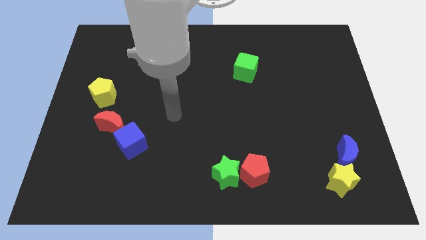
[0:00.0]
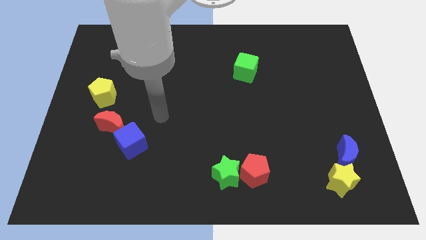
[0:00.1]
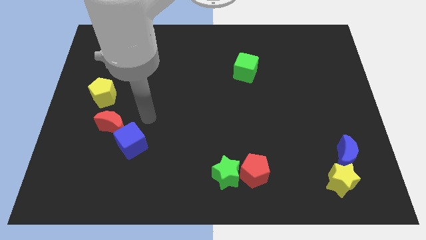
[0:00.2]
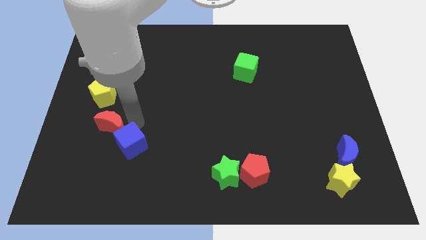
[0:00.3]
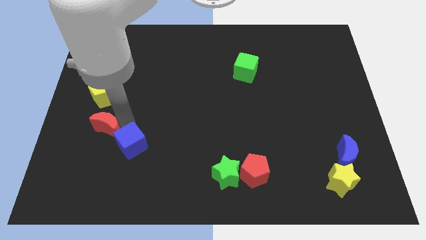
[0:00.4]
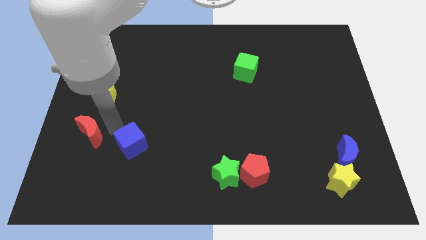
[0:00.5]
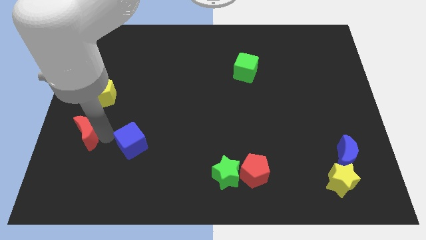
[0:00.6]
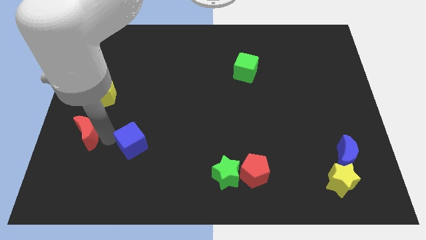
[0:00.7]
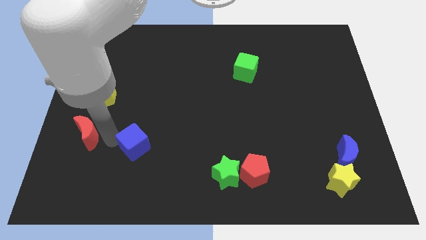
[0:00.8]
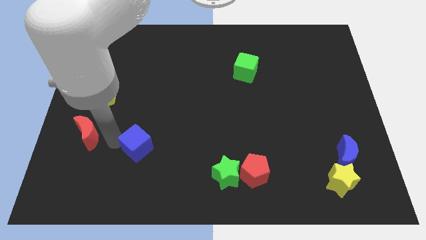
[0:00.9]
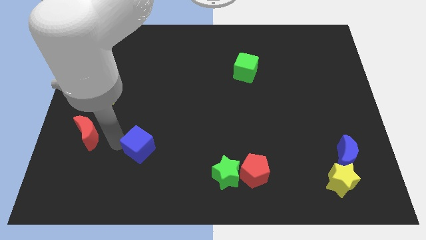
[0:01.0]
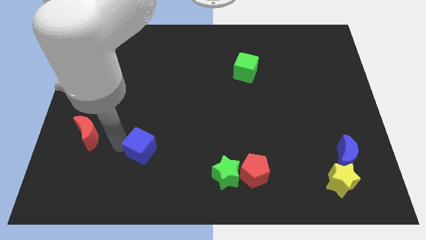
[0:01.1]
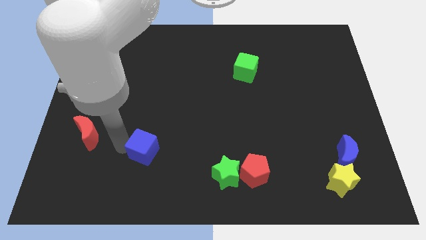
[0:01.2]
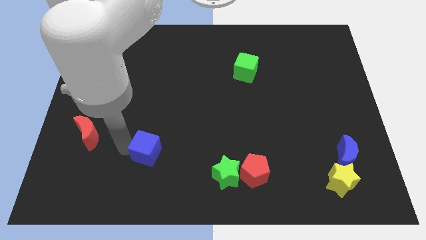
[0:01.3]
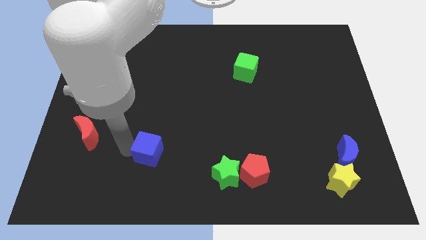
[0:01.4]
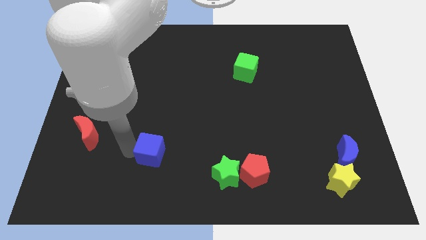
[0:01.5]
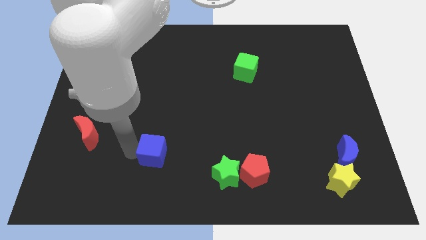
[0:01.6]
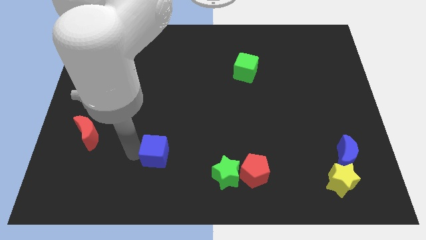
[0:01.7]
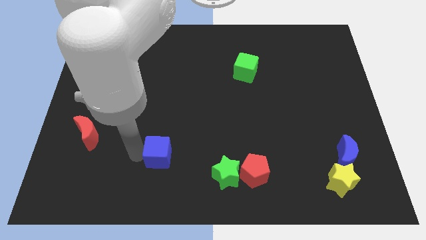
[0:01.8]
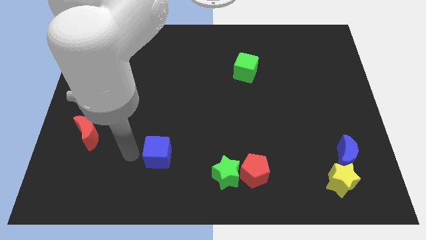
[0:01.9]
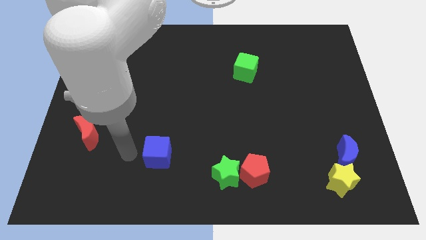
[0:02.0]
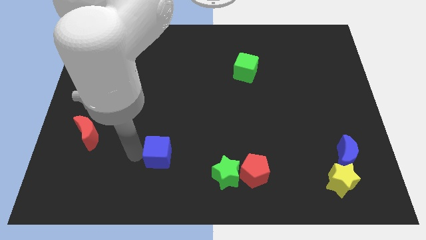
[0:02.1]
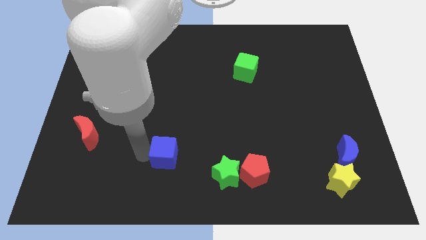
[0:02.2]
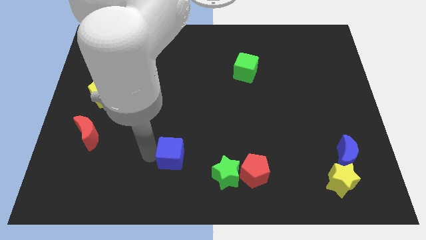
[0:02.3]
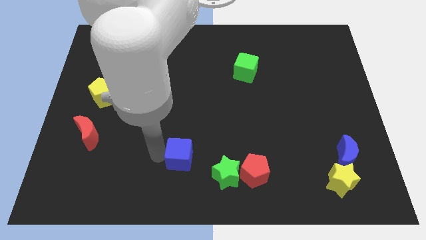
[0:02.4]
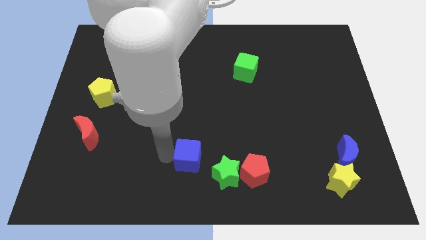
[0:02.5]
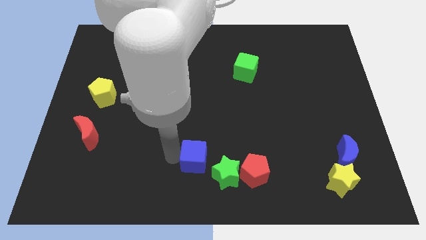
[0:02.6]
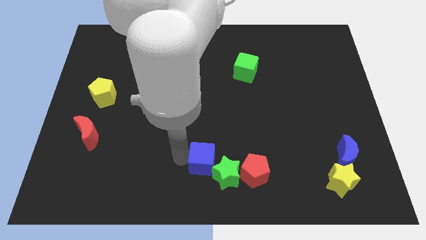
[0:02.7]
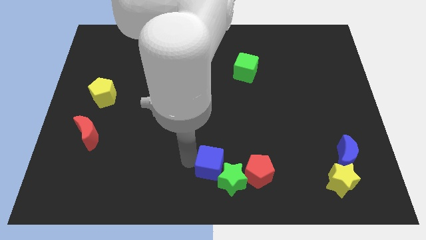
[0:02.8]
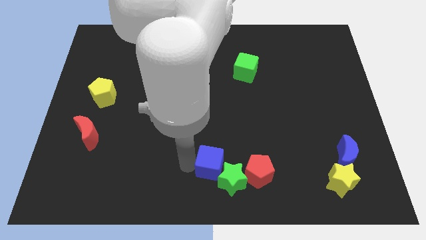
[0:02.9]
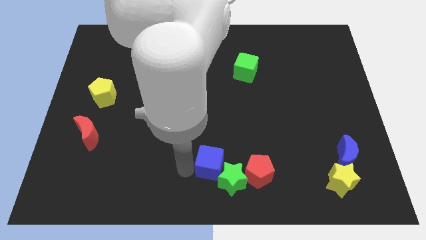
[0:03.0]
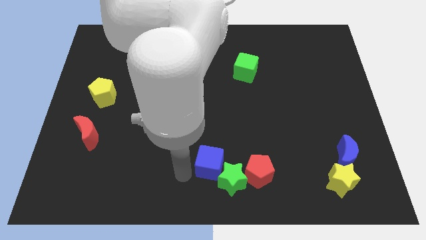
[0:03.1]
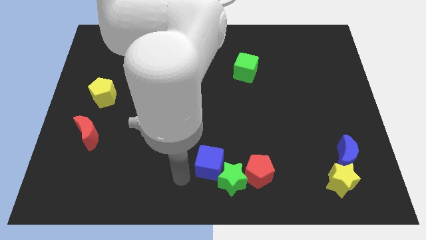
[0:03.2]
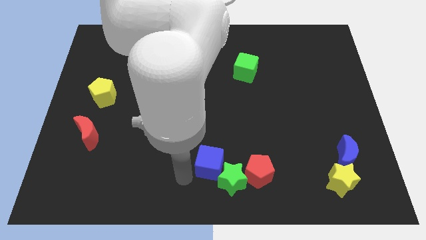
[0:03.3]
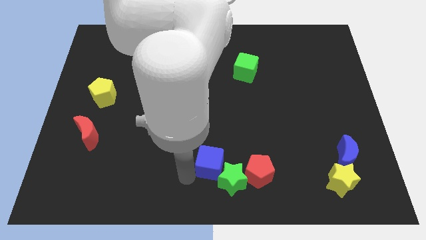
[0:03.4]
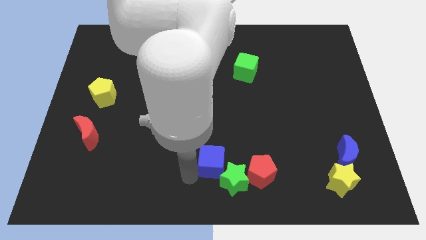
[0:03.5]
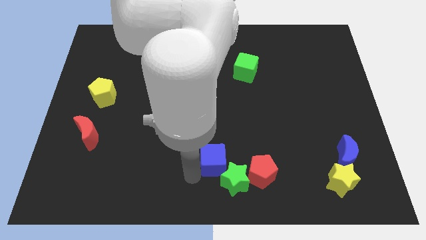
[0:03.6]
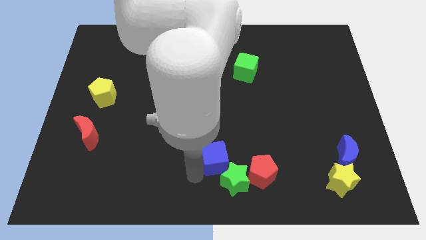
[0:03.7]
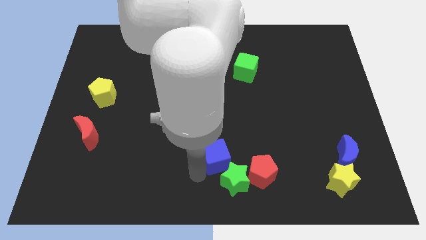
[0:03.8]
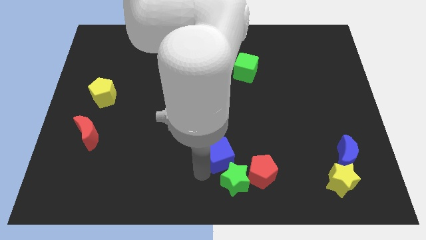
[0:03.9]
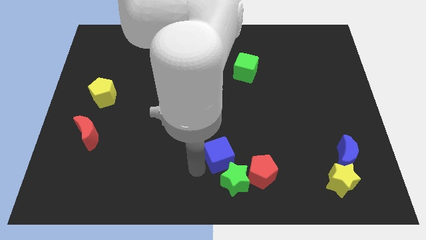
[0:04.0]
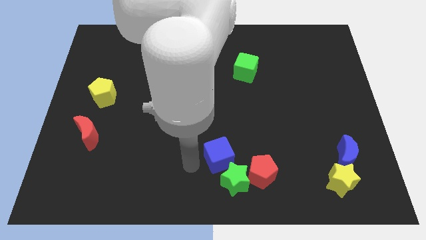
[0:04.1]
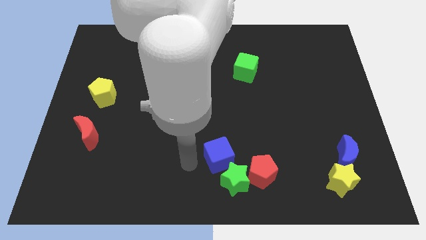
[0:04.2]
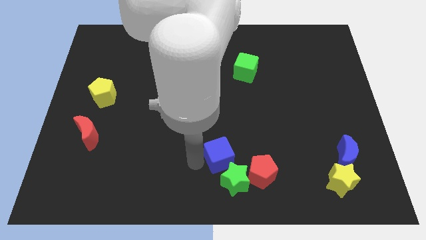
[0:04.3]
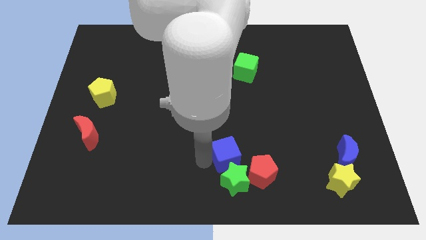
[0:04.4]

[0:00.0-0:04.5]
push the blue cube to the right

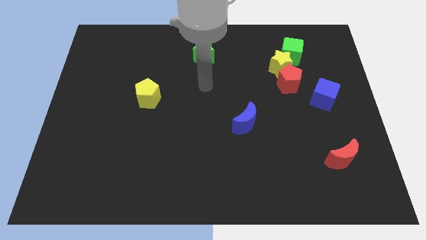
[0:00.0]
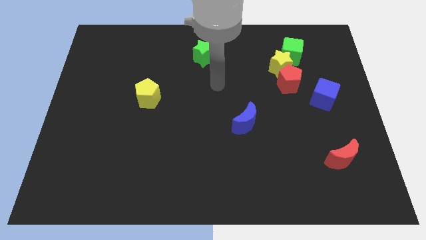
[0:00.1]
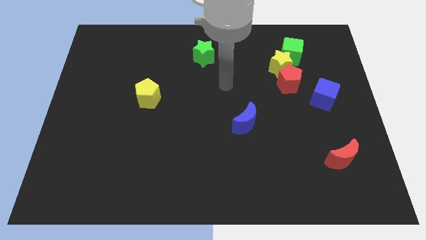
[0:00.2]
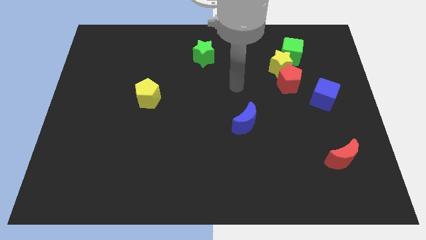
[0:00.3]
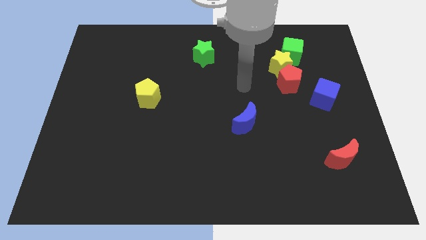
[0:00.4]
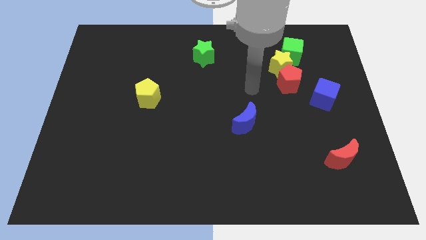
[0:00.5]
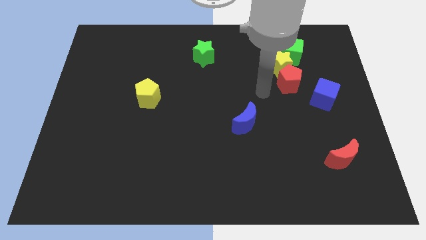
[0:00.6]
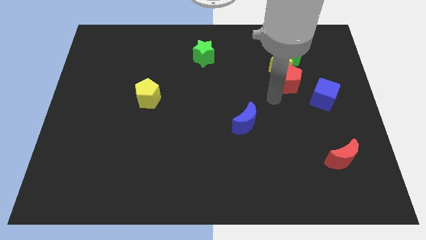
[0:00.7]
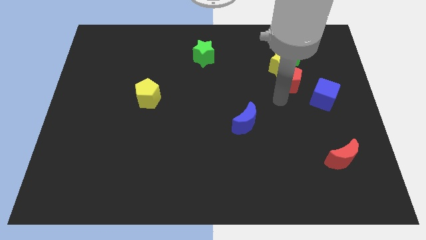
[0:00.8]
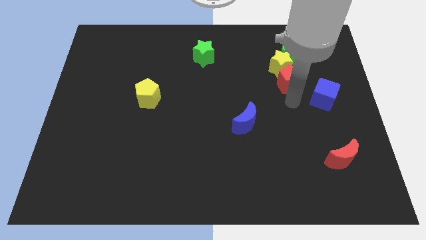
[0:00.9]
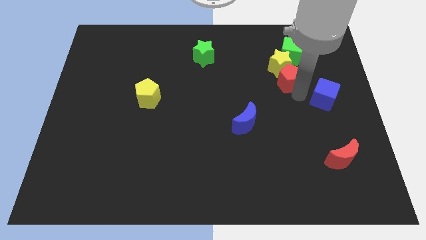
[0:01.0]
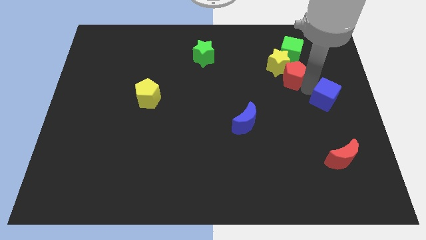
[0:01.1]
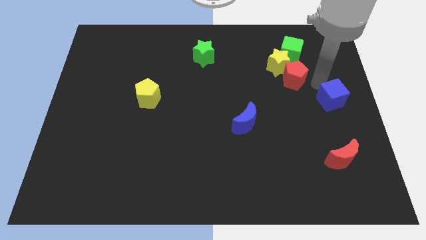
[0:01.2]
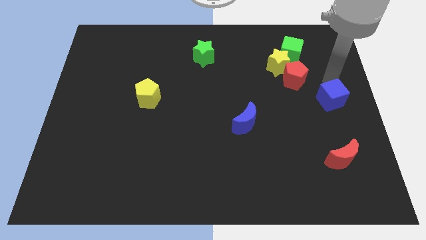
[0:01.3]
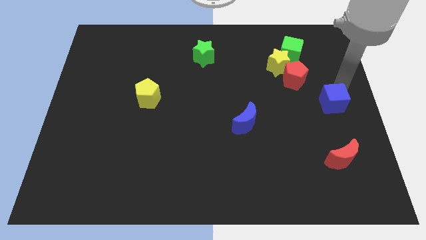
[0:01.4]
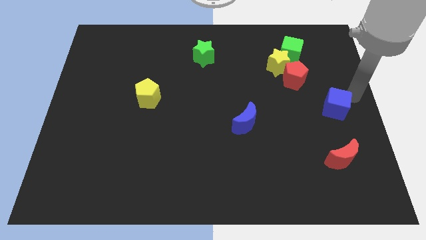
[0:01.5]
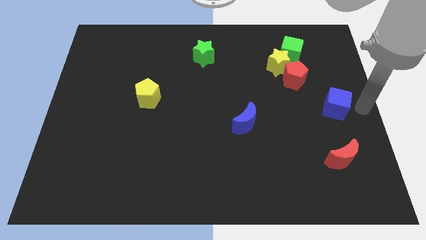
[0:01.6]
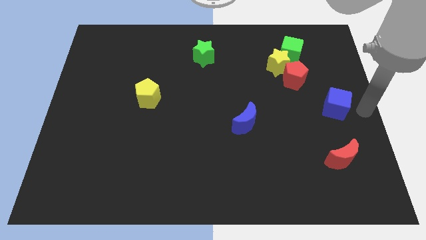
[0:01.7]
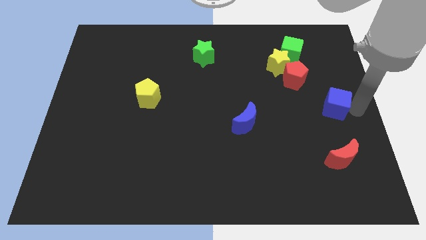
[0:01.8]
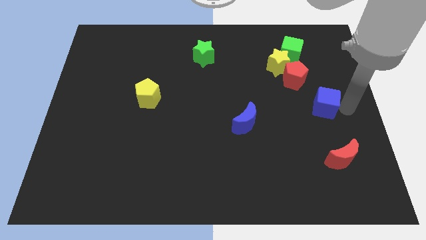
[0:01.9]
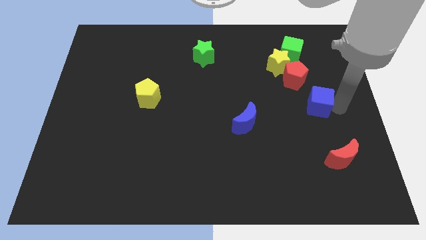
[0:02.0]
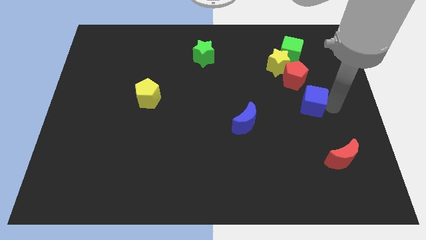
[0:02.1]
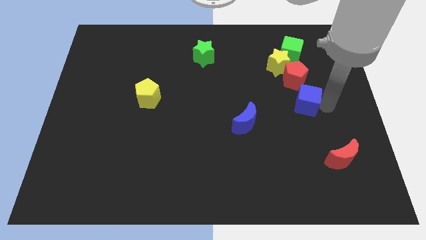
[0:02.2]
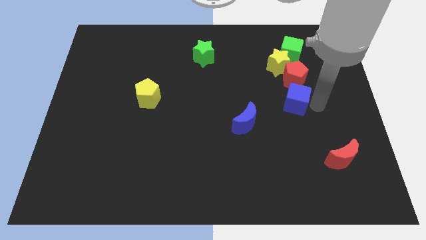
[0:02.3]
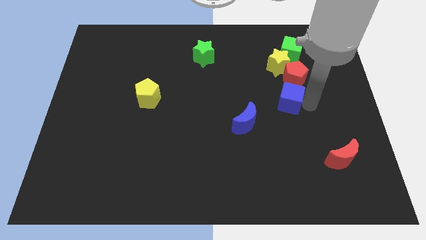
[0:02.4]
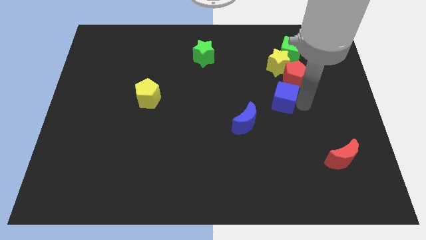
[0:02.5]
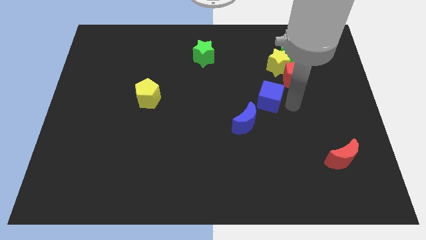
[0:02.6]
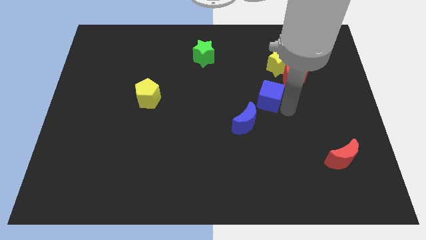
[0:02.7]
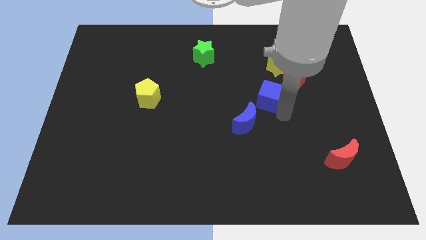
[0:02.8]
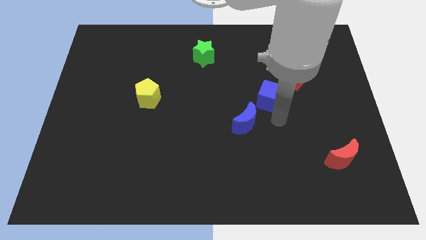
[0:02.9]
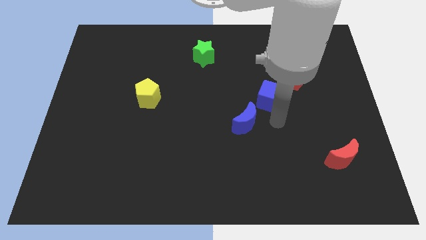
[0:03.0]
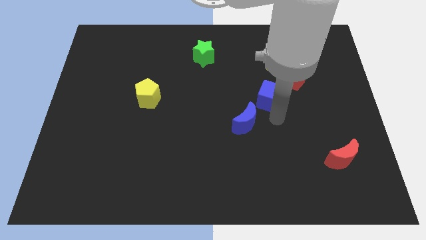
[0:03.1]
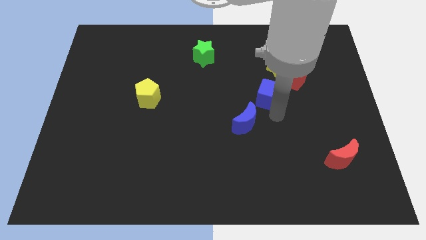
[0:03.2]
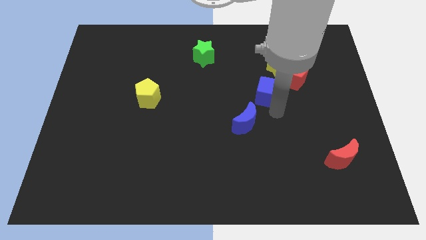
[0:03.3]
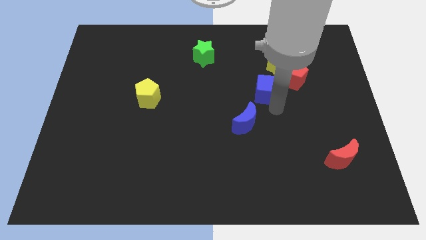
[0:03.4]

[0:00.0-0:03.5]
push the blue cube a little upwards and left
